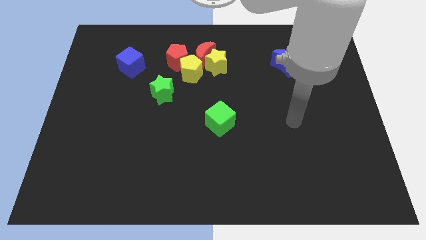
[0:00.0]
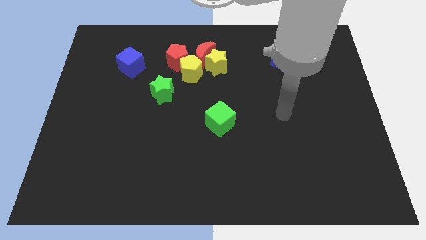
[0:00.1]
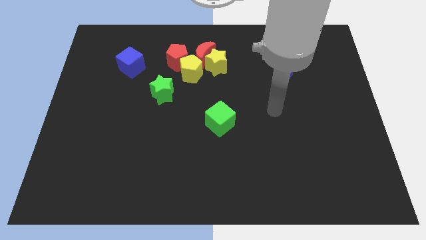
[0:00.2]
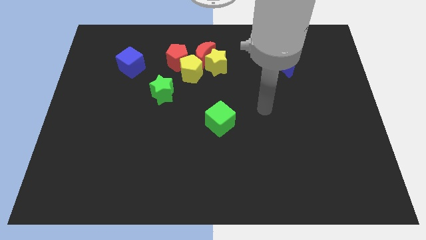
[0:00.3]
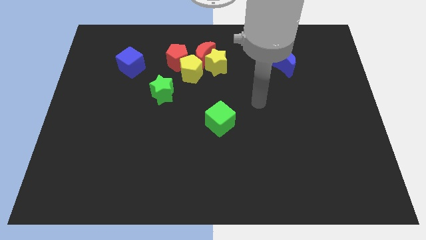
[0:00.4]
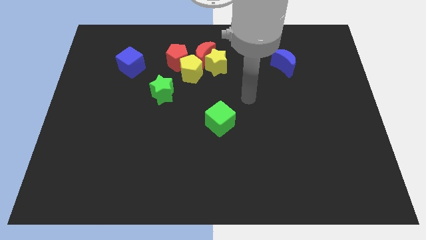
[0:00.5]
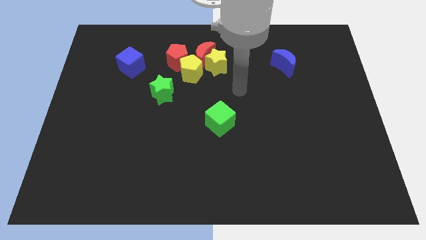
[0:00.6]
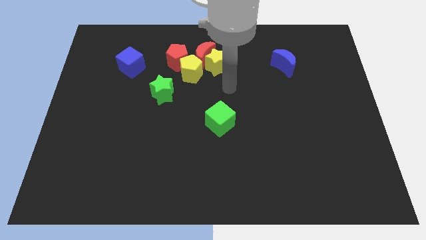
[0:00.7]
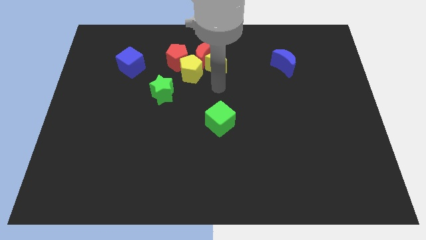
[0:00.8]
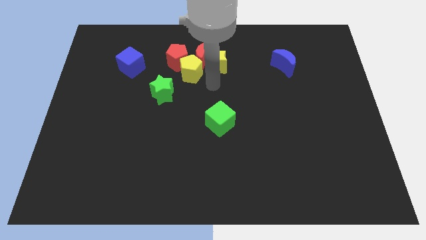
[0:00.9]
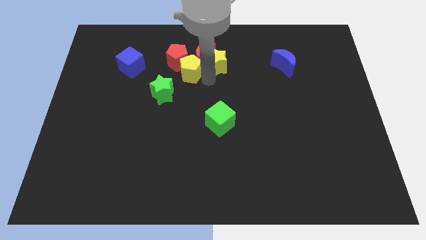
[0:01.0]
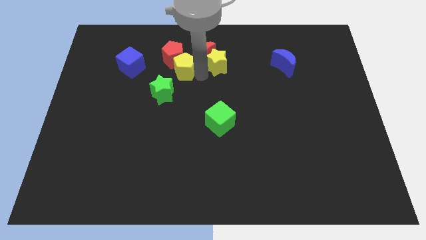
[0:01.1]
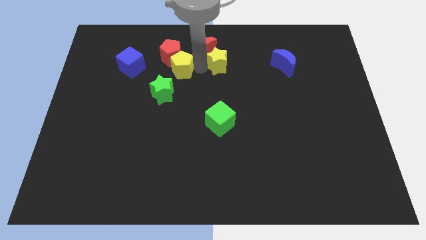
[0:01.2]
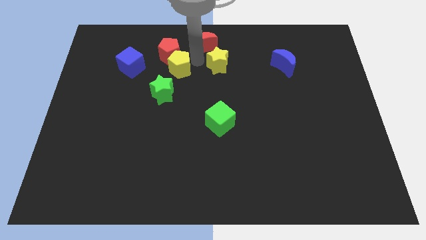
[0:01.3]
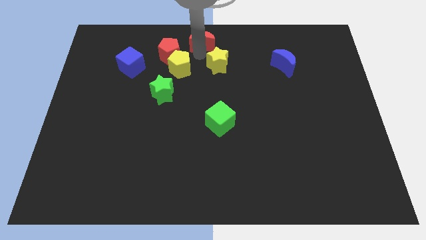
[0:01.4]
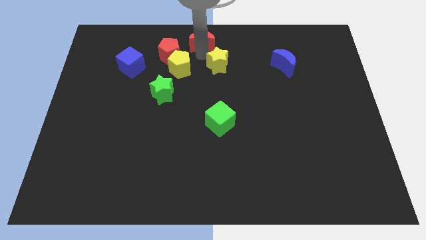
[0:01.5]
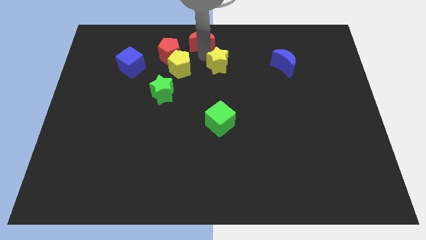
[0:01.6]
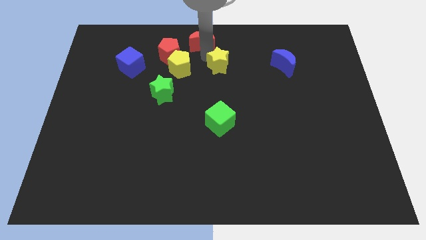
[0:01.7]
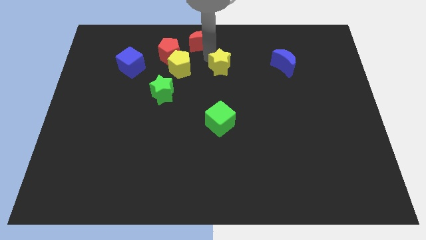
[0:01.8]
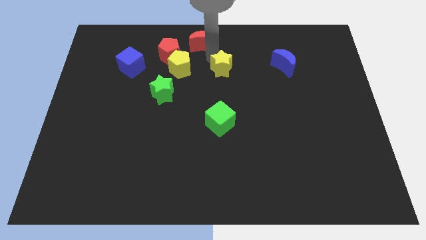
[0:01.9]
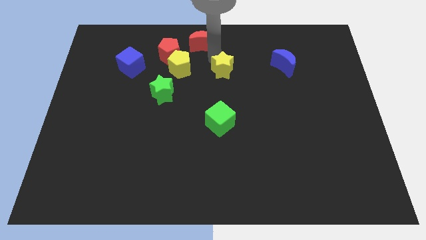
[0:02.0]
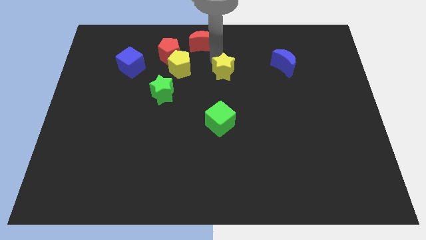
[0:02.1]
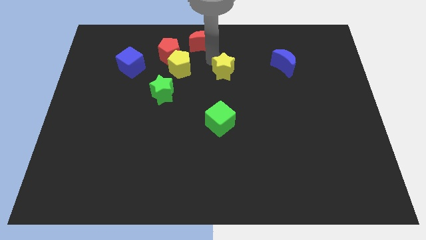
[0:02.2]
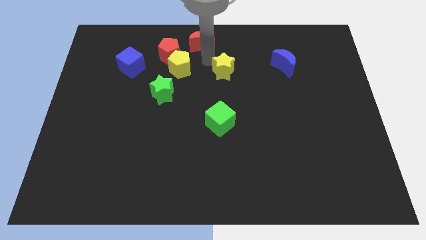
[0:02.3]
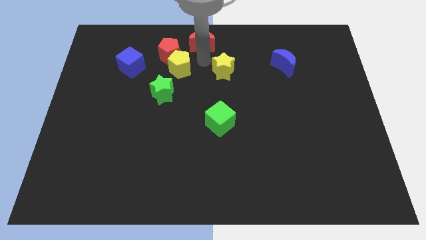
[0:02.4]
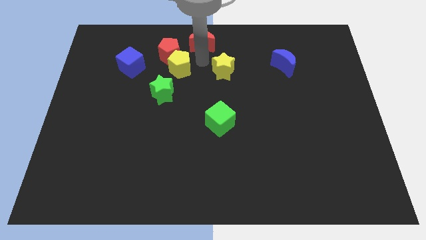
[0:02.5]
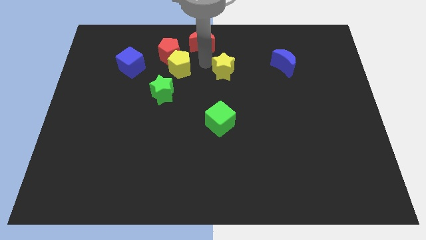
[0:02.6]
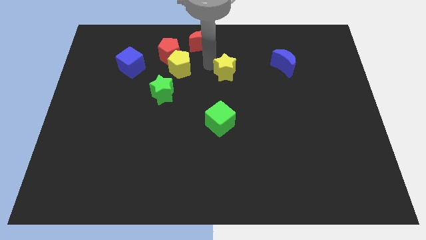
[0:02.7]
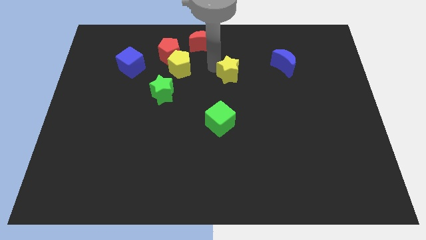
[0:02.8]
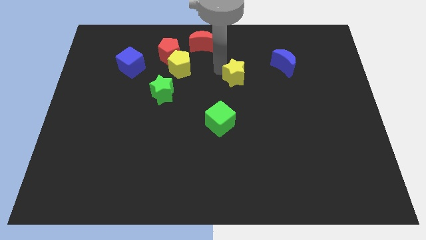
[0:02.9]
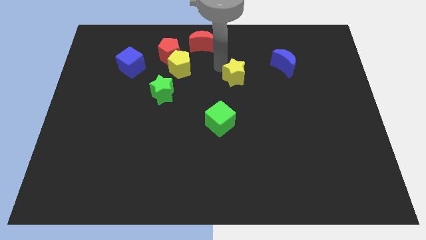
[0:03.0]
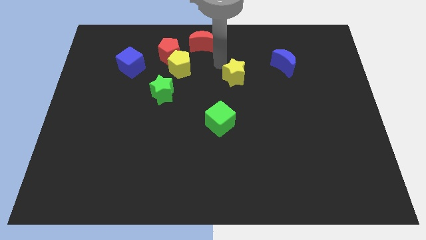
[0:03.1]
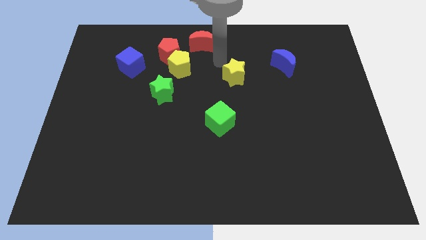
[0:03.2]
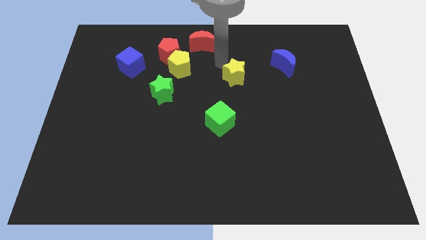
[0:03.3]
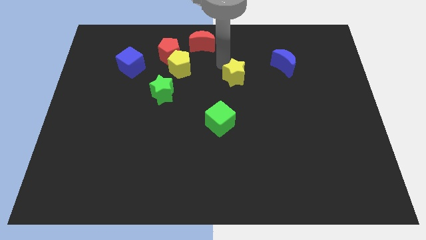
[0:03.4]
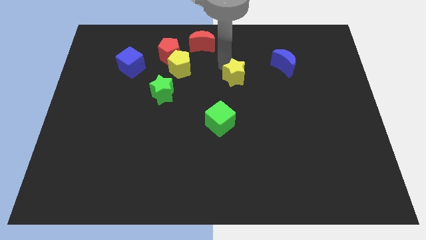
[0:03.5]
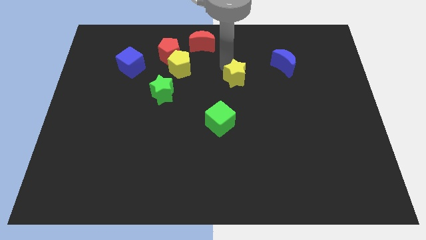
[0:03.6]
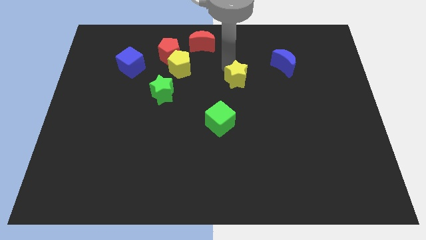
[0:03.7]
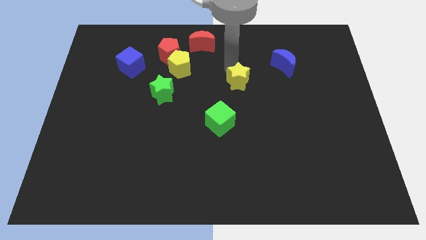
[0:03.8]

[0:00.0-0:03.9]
slightly move the yellow star diagonally downwards and right

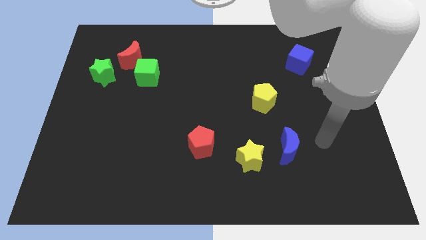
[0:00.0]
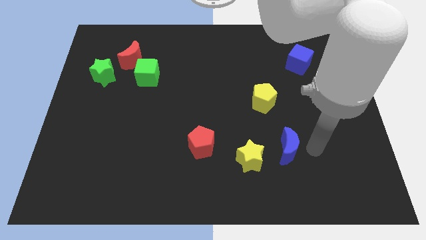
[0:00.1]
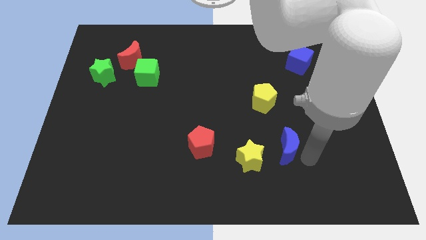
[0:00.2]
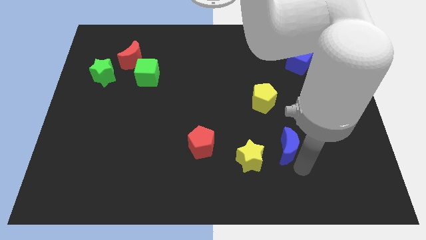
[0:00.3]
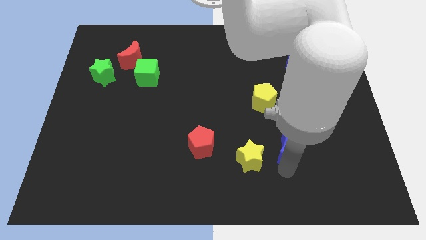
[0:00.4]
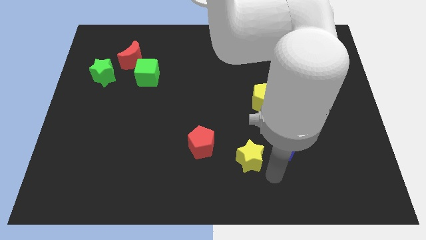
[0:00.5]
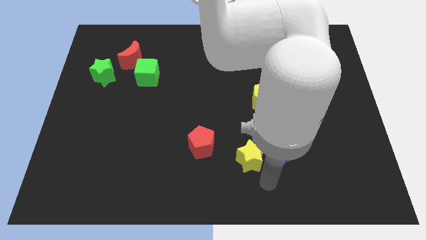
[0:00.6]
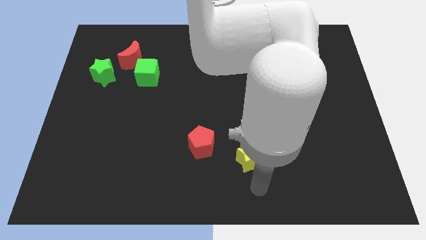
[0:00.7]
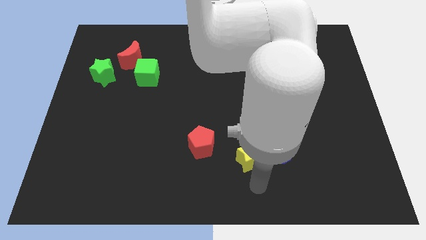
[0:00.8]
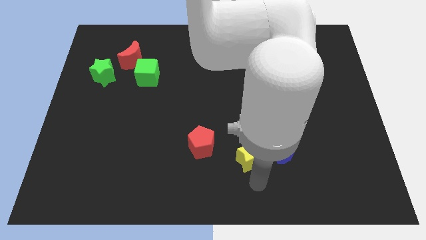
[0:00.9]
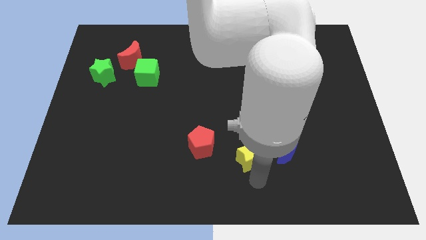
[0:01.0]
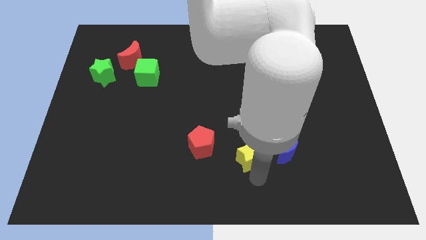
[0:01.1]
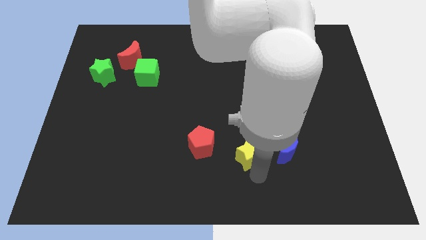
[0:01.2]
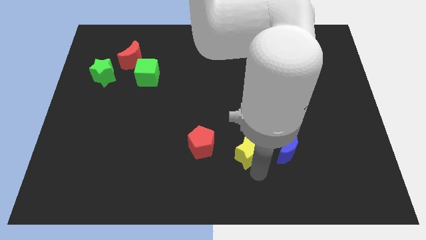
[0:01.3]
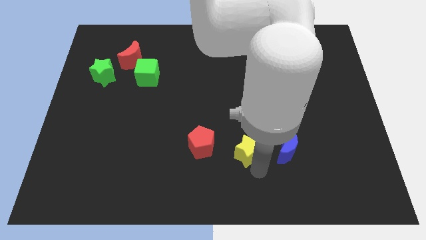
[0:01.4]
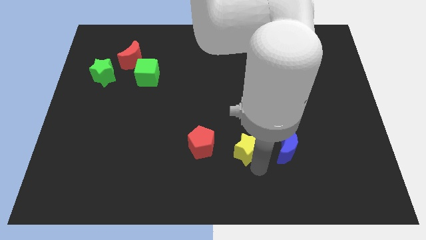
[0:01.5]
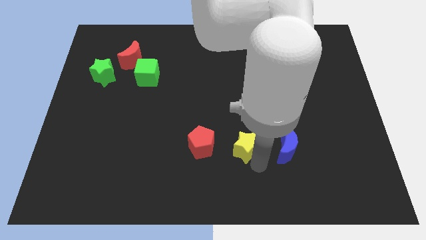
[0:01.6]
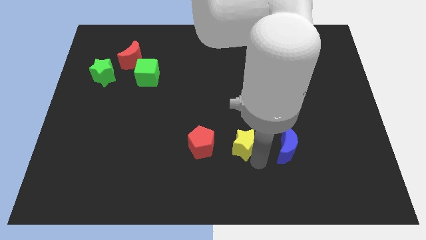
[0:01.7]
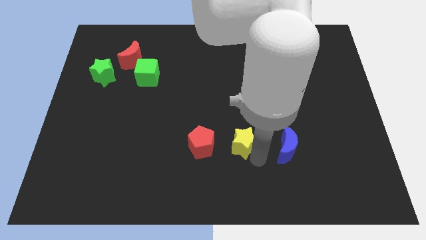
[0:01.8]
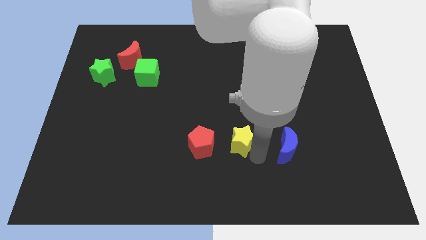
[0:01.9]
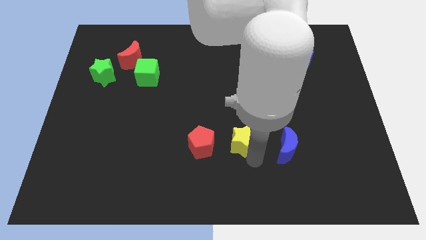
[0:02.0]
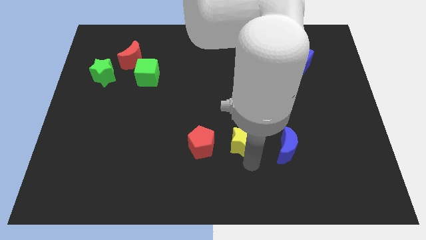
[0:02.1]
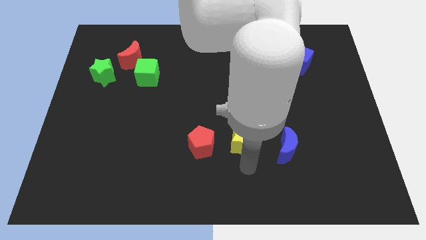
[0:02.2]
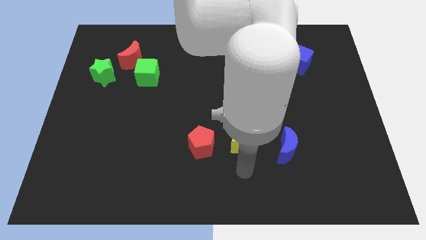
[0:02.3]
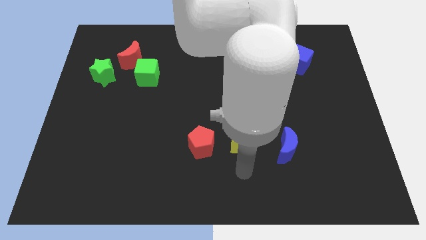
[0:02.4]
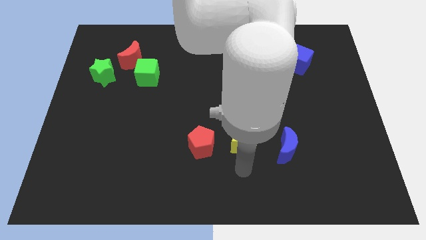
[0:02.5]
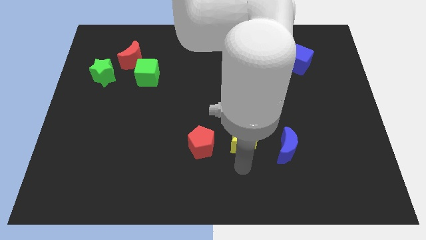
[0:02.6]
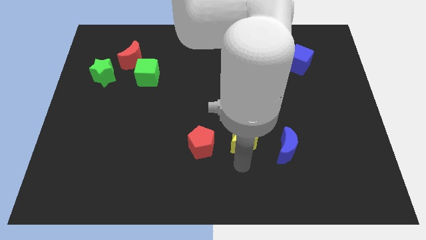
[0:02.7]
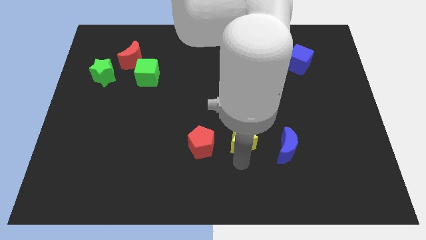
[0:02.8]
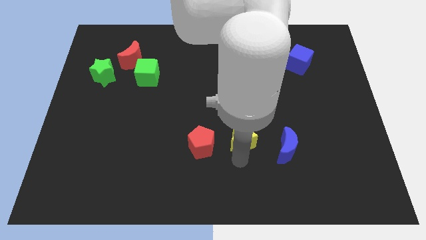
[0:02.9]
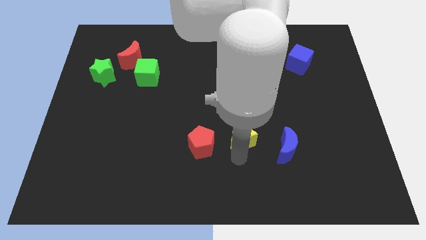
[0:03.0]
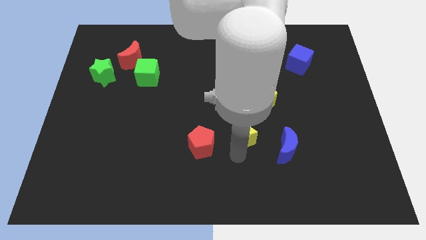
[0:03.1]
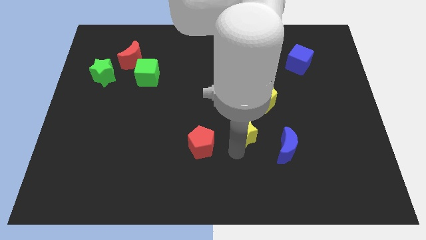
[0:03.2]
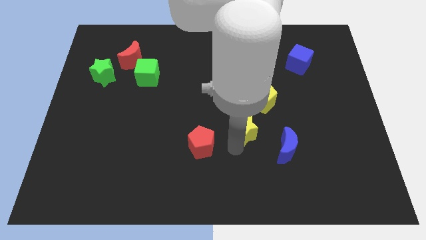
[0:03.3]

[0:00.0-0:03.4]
slightly push the yellow star up

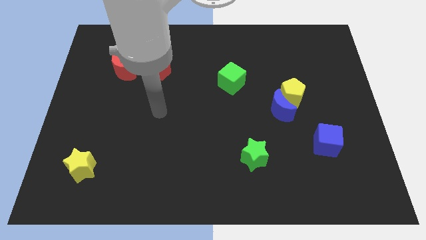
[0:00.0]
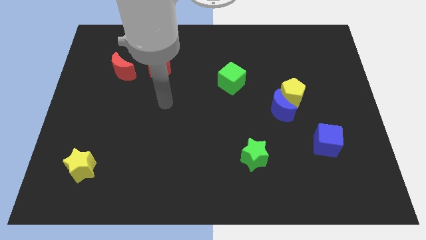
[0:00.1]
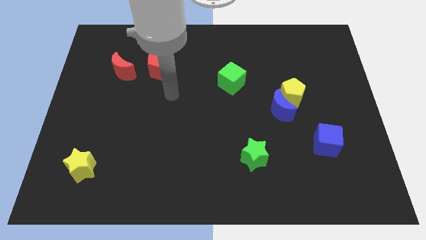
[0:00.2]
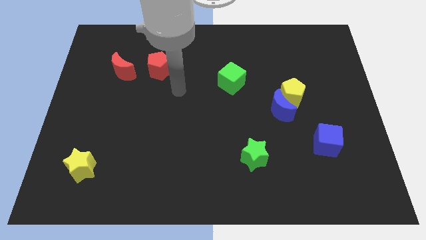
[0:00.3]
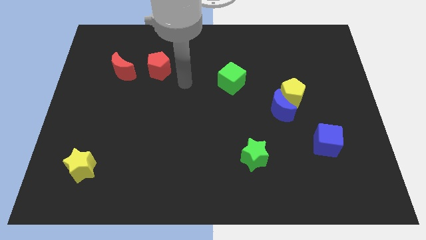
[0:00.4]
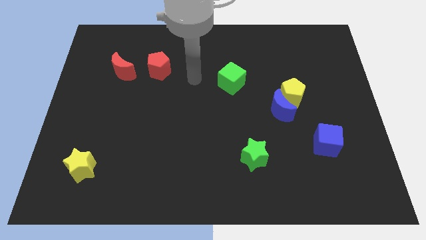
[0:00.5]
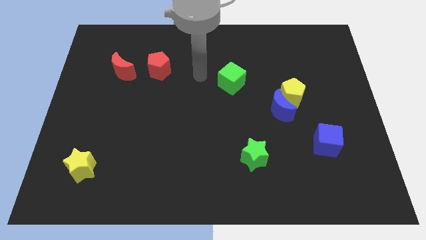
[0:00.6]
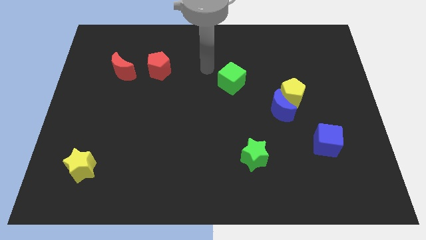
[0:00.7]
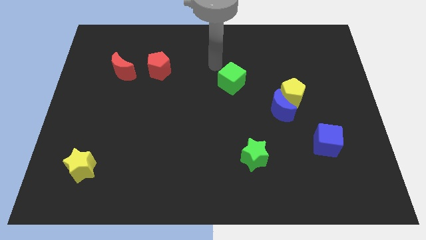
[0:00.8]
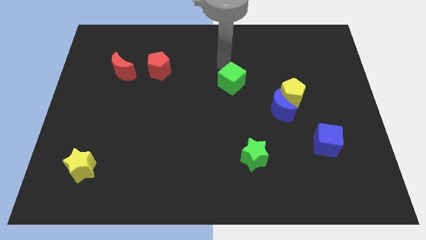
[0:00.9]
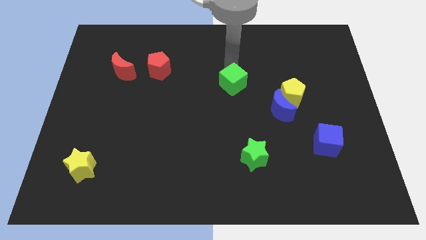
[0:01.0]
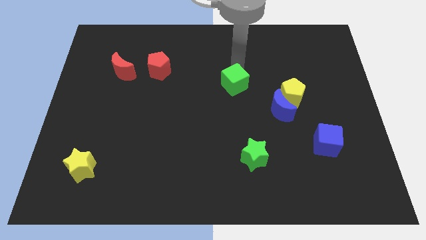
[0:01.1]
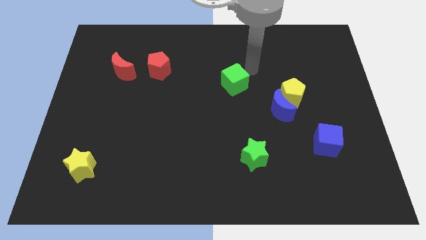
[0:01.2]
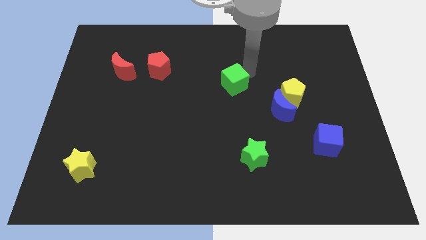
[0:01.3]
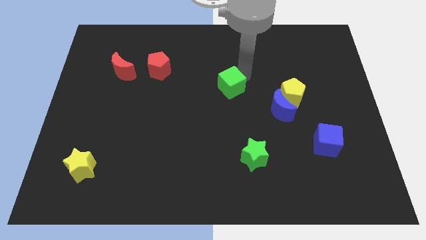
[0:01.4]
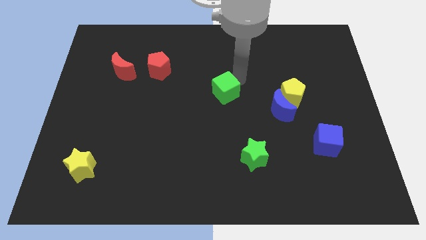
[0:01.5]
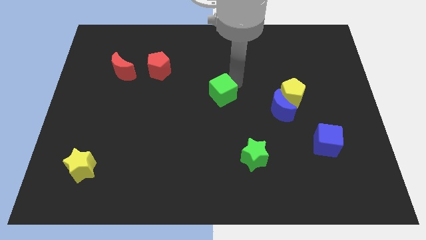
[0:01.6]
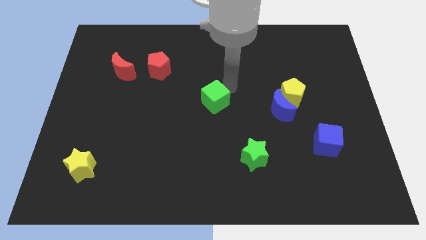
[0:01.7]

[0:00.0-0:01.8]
slide the green cube slightly downwards and to the left diagonally
